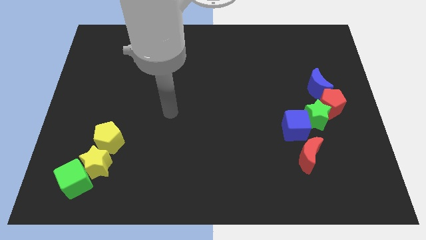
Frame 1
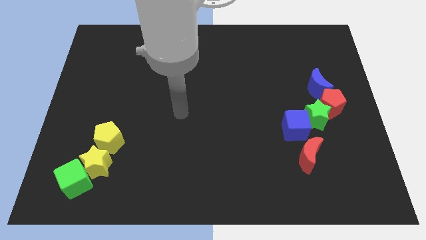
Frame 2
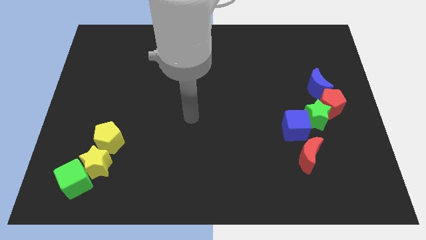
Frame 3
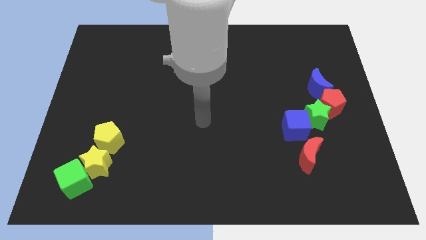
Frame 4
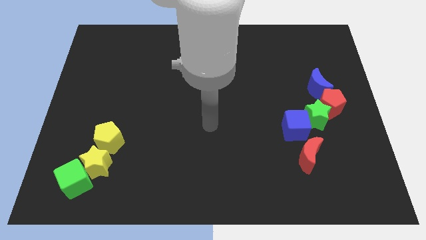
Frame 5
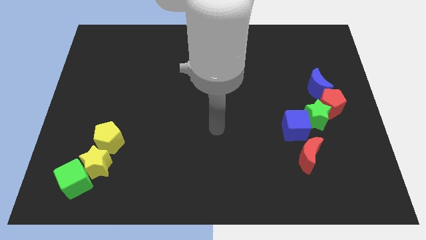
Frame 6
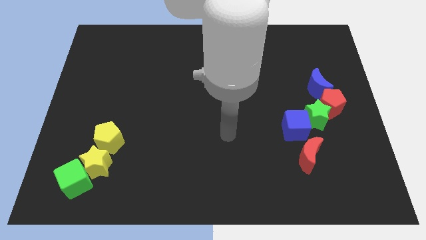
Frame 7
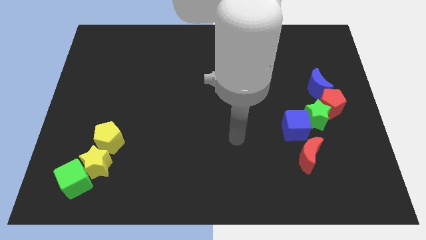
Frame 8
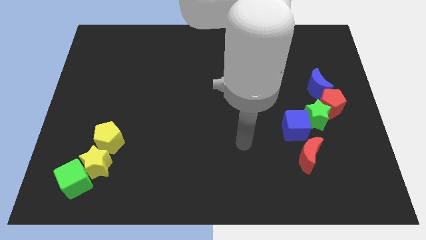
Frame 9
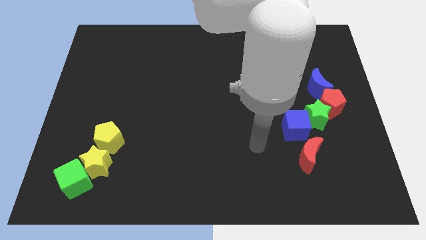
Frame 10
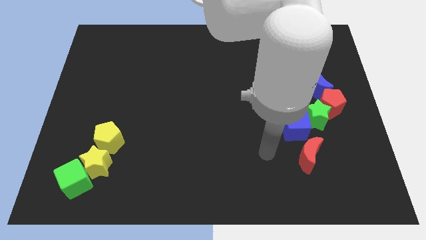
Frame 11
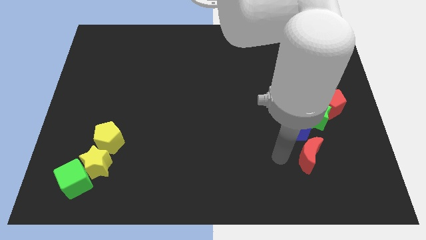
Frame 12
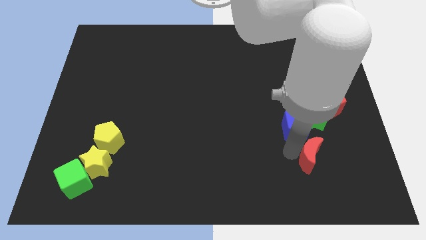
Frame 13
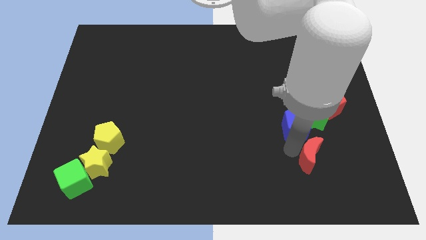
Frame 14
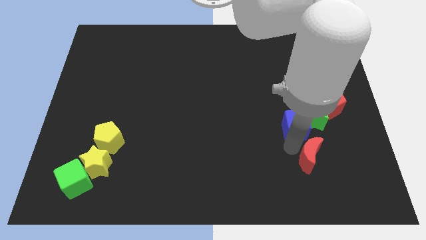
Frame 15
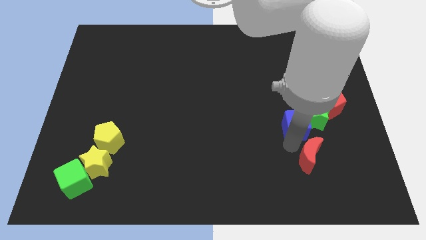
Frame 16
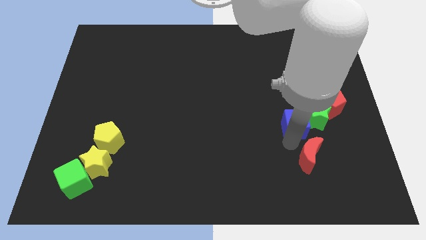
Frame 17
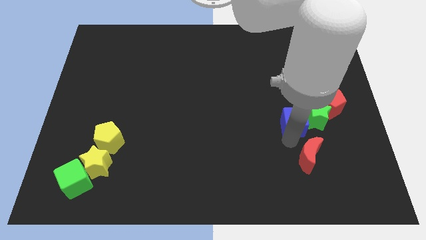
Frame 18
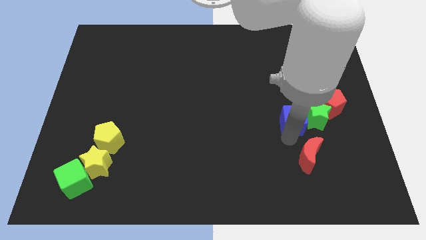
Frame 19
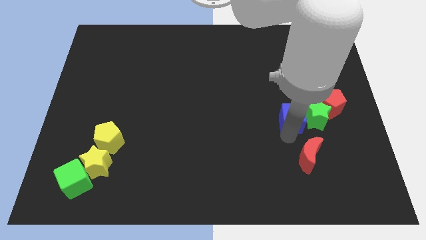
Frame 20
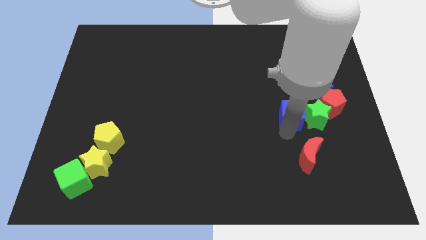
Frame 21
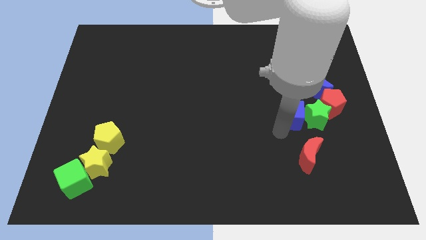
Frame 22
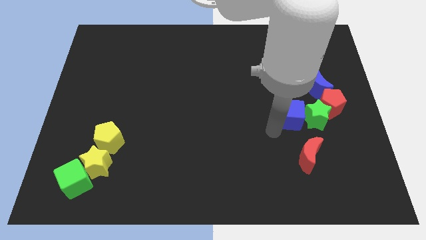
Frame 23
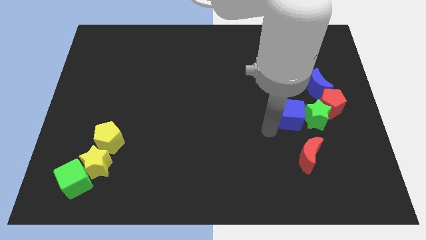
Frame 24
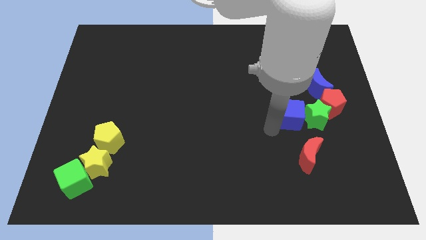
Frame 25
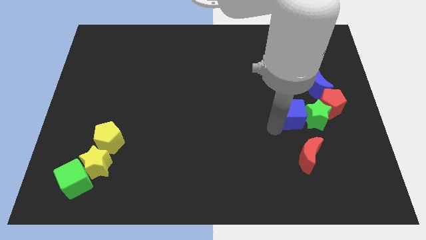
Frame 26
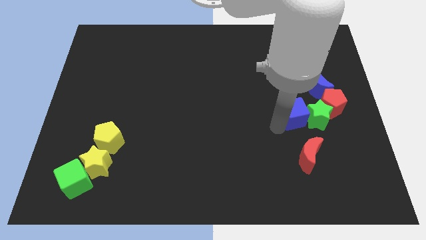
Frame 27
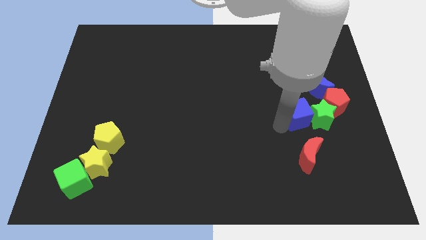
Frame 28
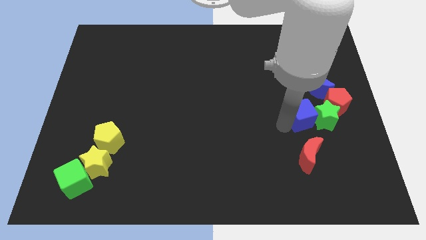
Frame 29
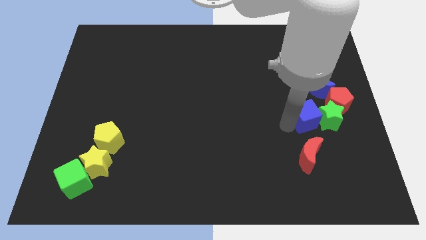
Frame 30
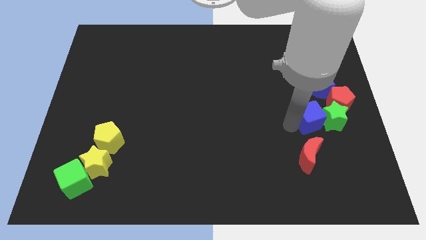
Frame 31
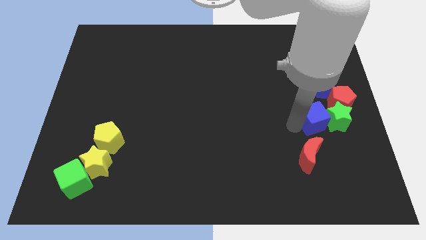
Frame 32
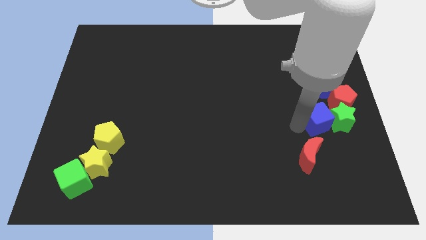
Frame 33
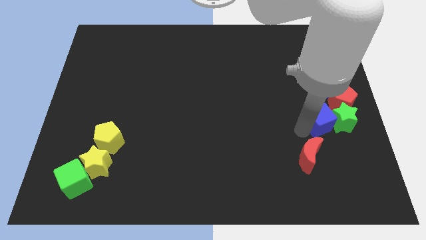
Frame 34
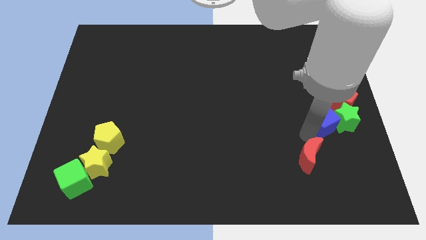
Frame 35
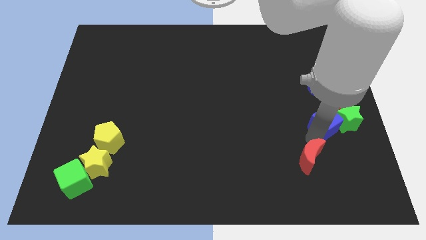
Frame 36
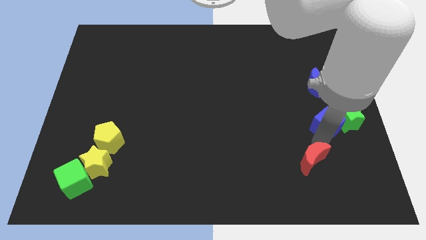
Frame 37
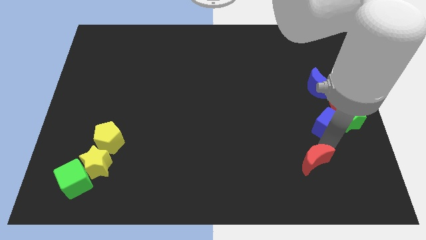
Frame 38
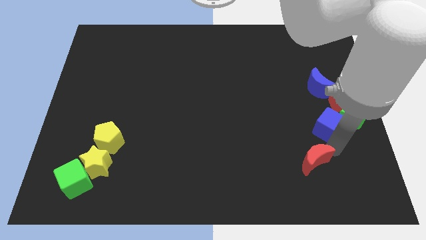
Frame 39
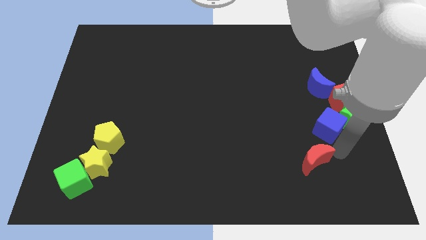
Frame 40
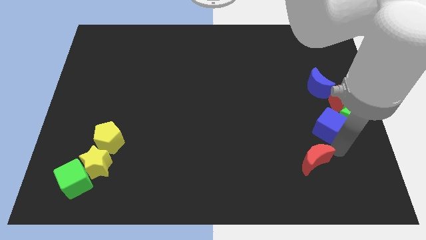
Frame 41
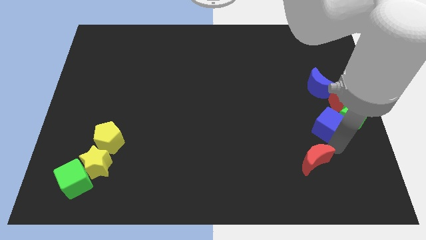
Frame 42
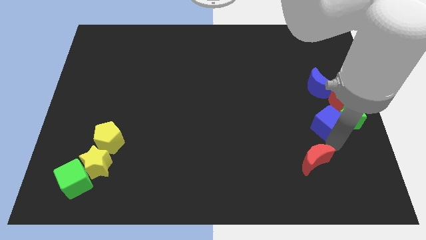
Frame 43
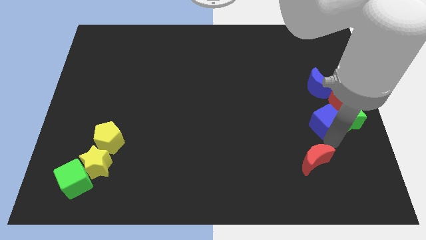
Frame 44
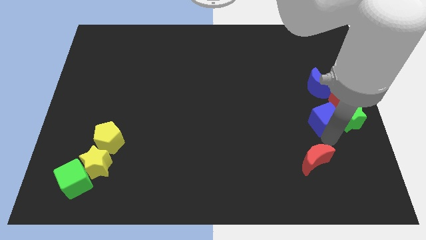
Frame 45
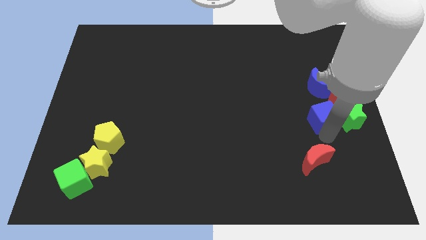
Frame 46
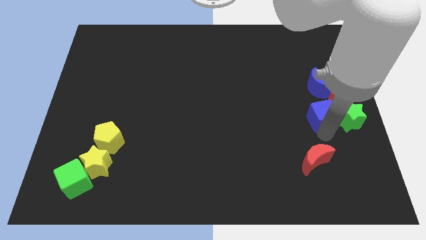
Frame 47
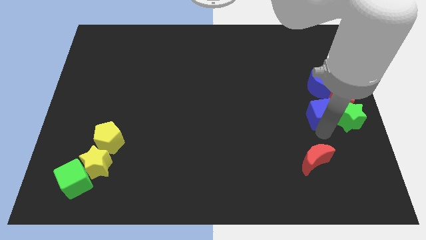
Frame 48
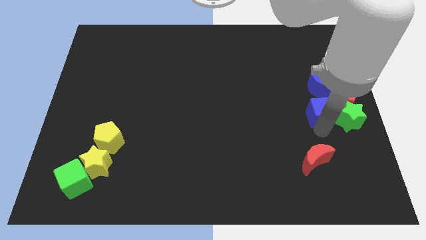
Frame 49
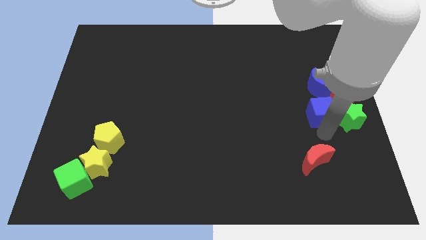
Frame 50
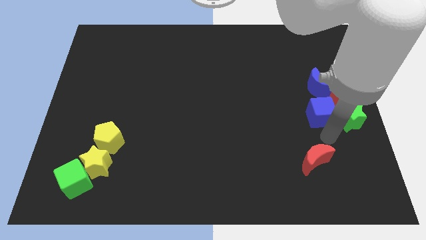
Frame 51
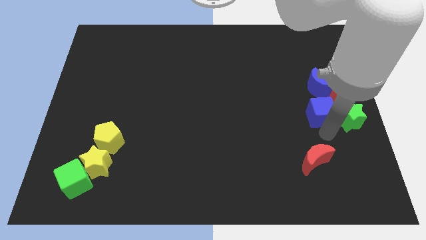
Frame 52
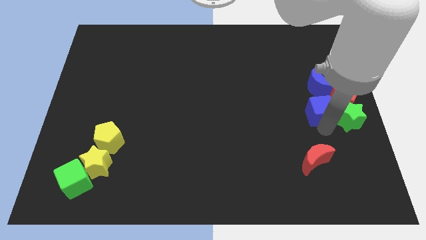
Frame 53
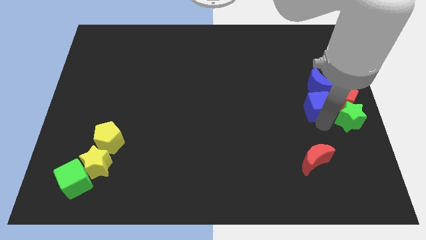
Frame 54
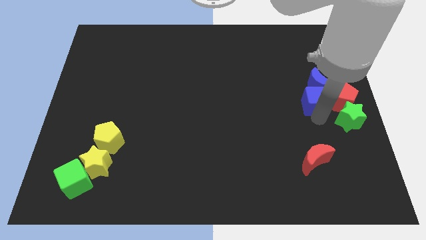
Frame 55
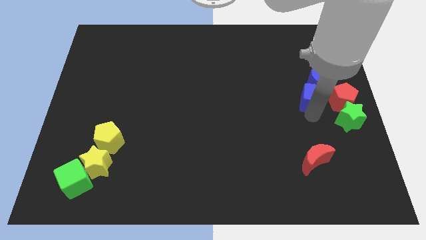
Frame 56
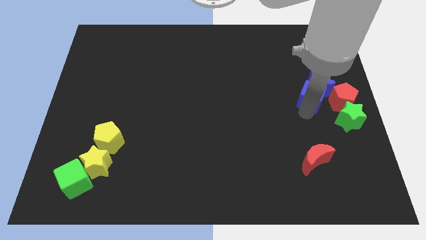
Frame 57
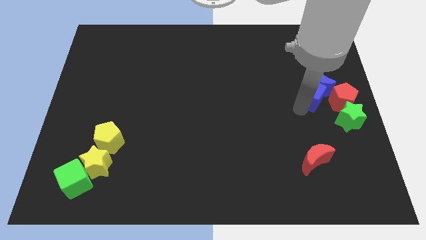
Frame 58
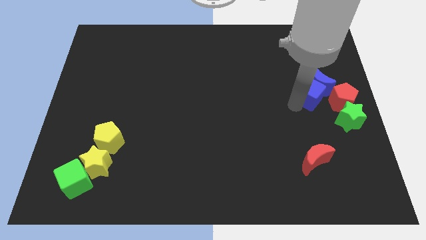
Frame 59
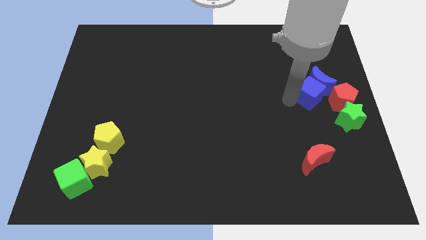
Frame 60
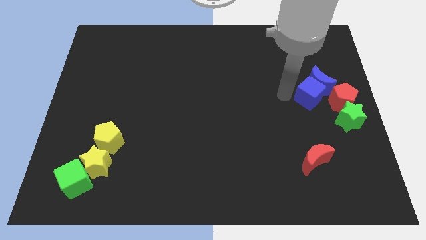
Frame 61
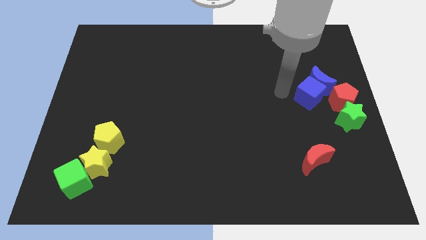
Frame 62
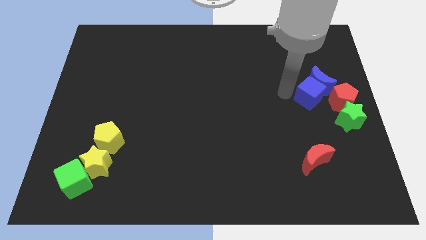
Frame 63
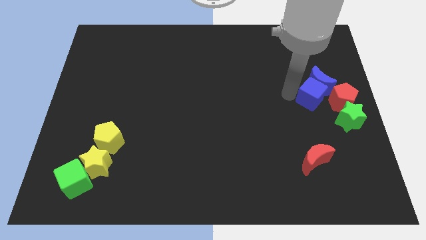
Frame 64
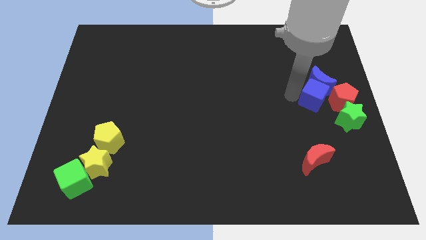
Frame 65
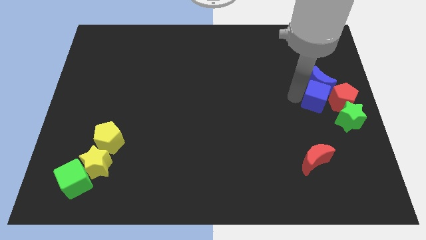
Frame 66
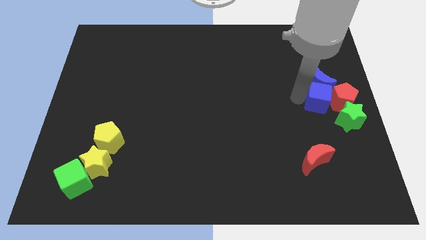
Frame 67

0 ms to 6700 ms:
slide the blue cube next to the red pentagon
